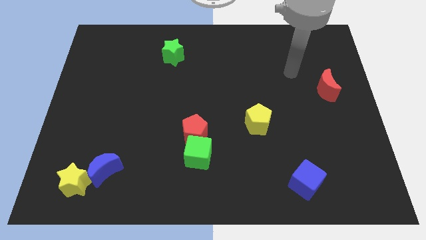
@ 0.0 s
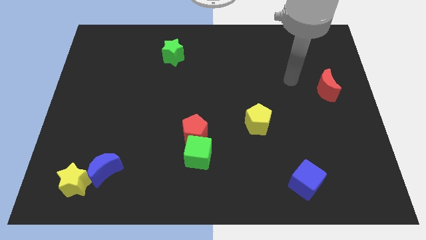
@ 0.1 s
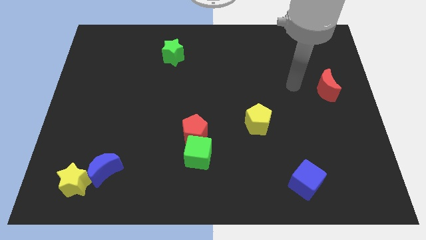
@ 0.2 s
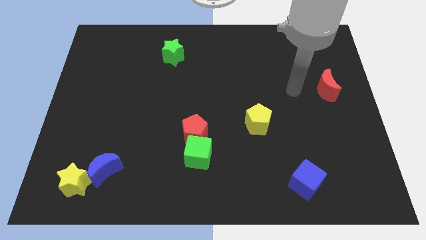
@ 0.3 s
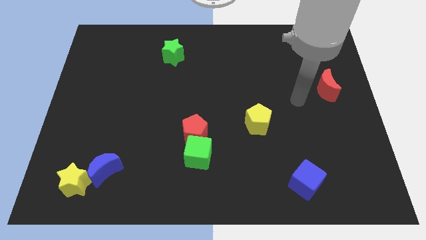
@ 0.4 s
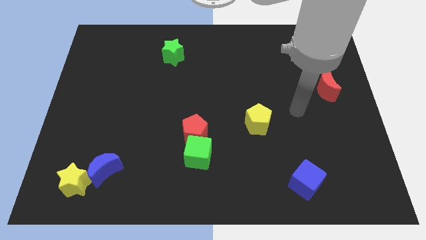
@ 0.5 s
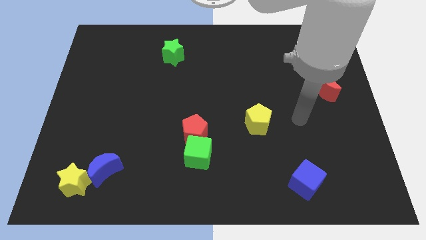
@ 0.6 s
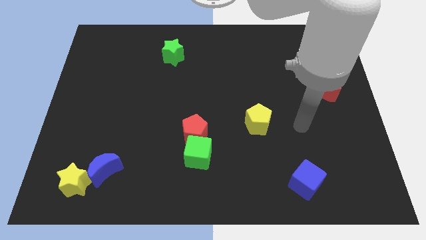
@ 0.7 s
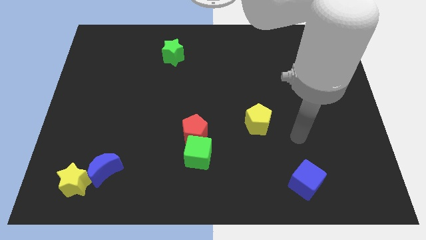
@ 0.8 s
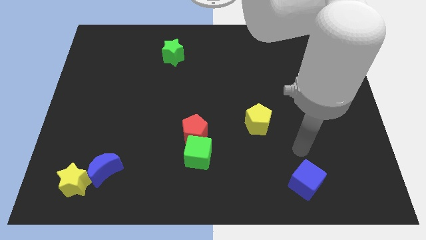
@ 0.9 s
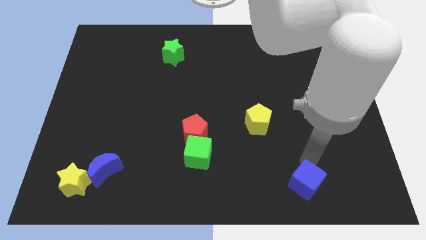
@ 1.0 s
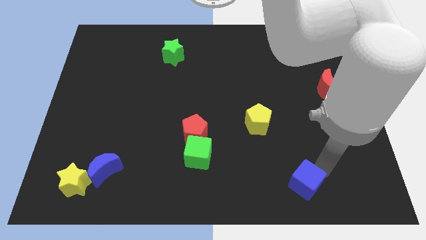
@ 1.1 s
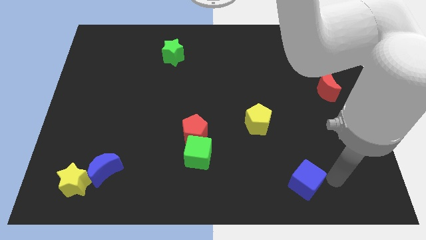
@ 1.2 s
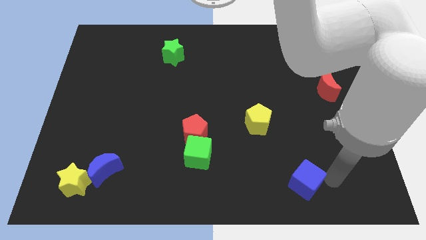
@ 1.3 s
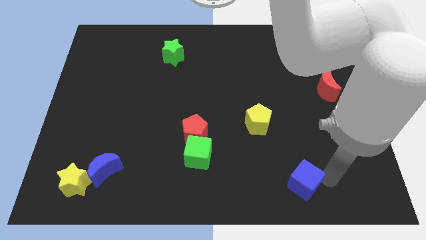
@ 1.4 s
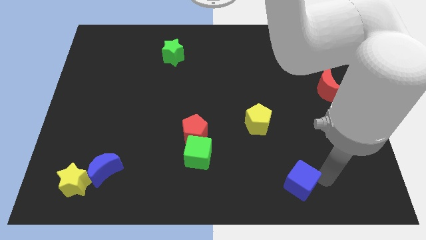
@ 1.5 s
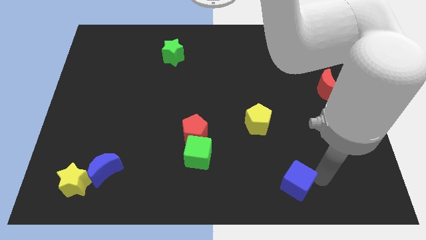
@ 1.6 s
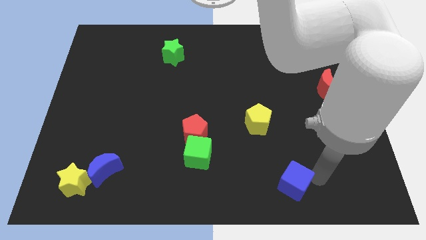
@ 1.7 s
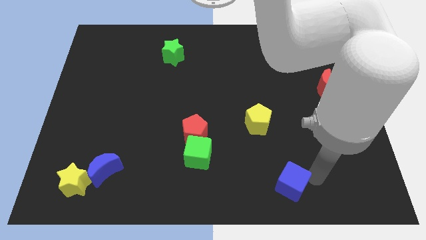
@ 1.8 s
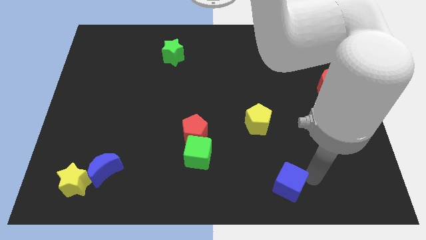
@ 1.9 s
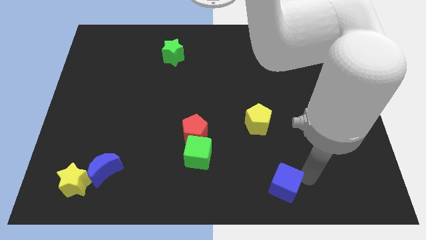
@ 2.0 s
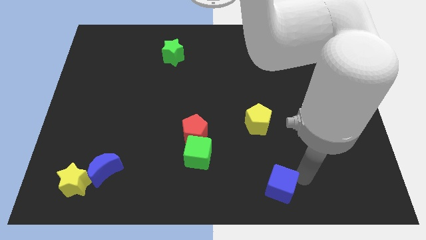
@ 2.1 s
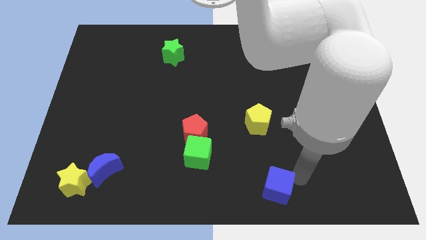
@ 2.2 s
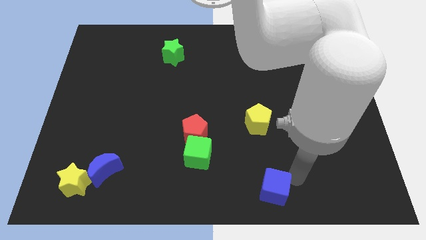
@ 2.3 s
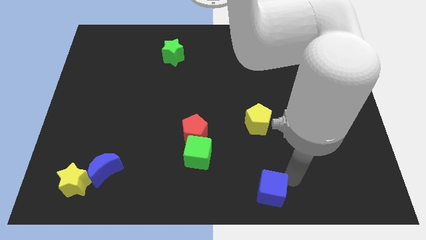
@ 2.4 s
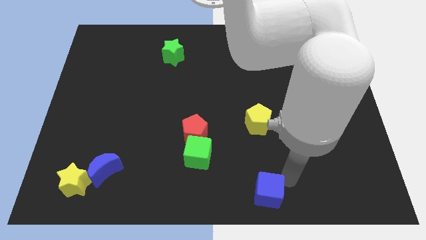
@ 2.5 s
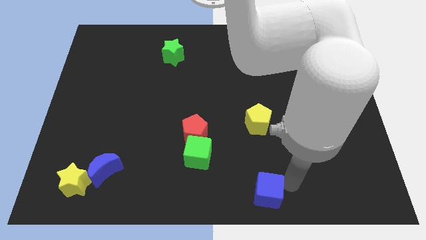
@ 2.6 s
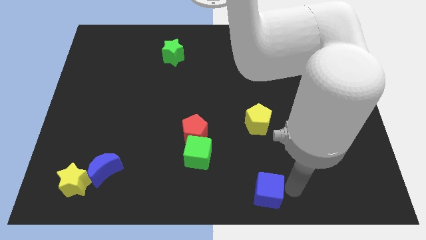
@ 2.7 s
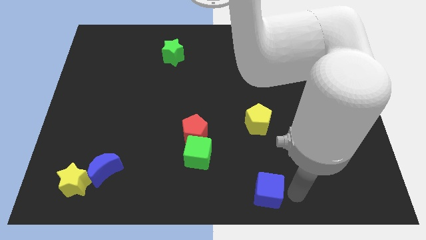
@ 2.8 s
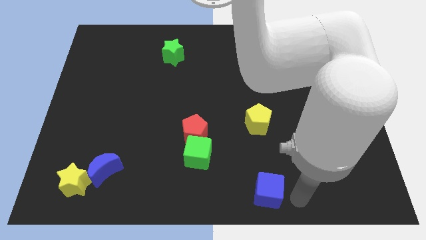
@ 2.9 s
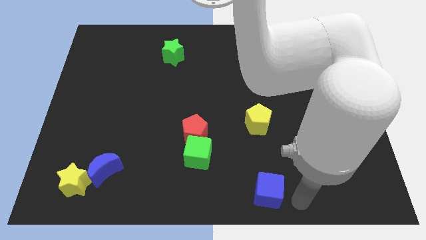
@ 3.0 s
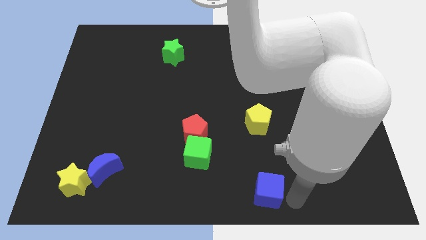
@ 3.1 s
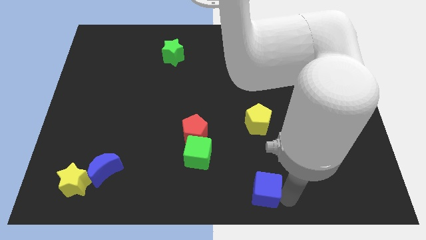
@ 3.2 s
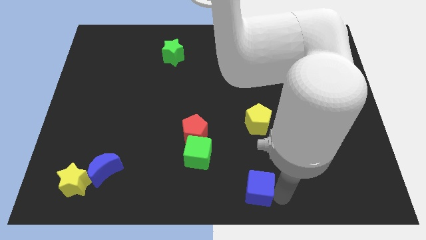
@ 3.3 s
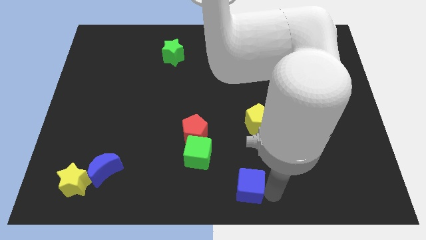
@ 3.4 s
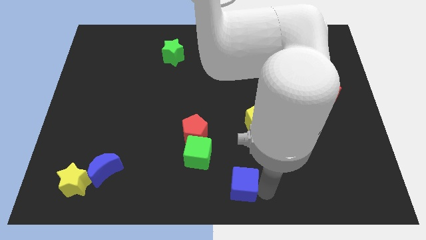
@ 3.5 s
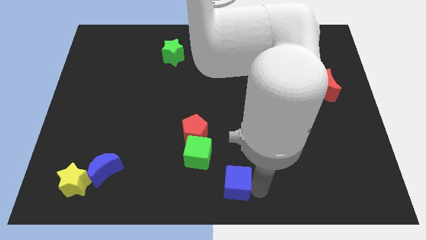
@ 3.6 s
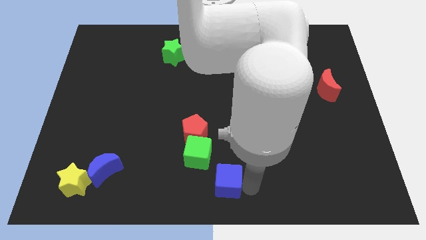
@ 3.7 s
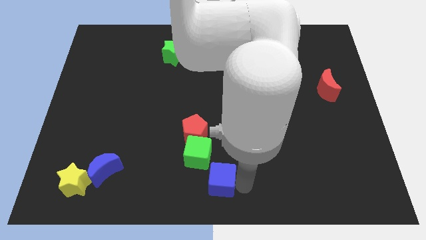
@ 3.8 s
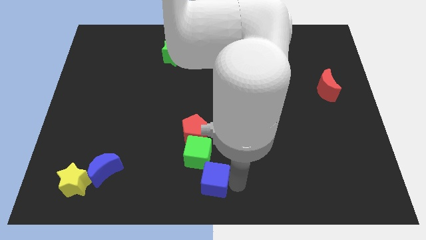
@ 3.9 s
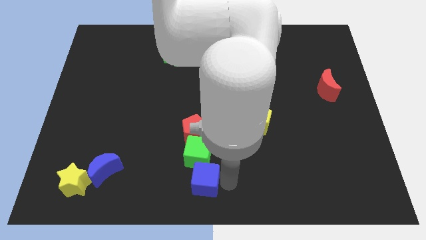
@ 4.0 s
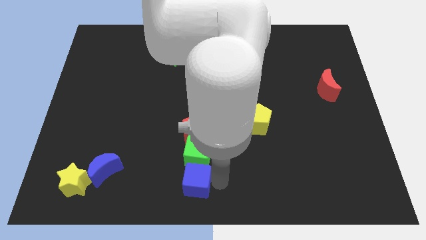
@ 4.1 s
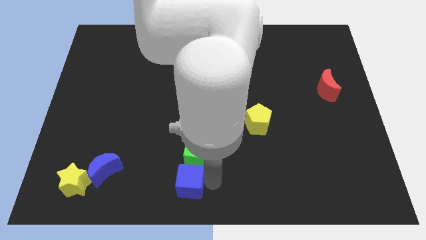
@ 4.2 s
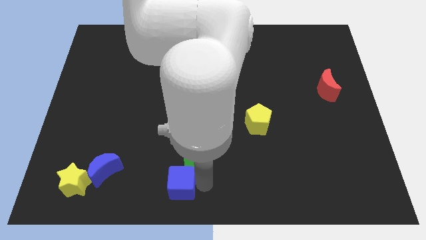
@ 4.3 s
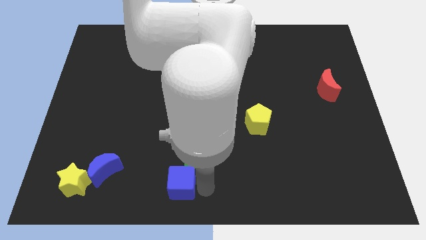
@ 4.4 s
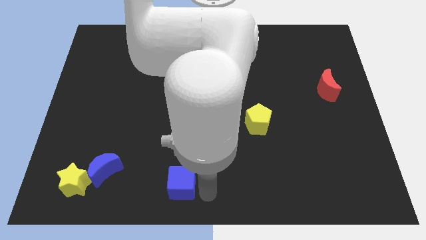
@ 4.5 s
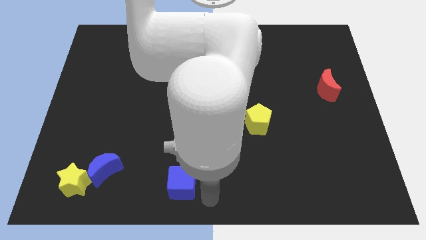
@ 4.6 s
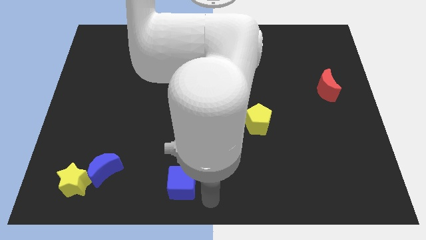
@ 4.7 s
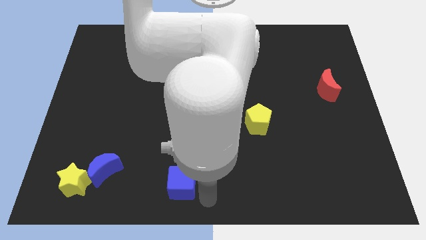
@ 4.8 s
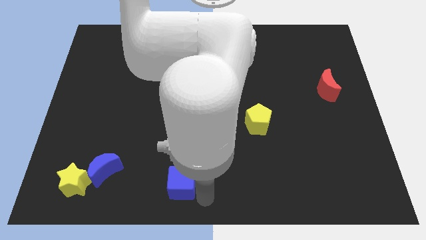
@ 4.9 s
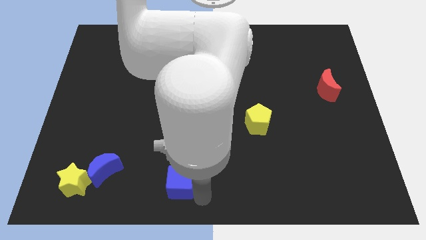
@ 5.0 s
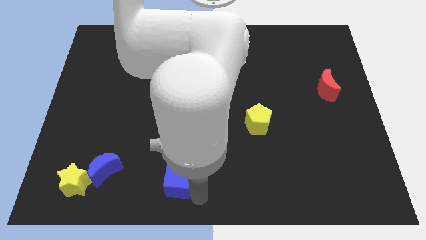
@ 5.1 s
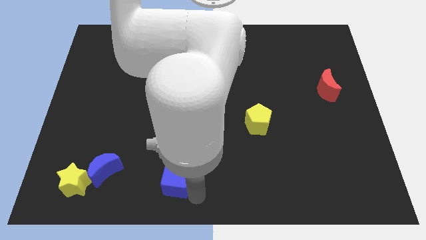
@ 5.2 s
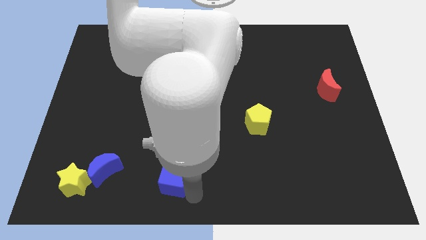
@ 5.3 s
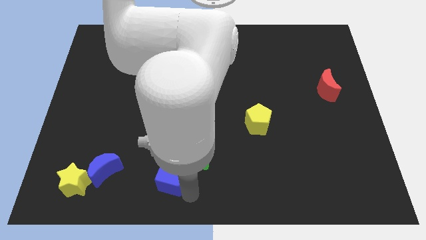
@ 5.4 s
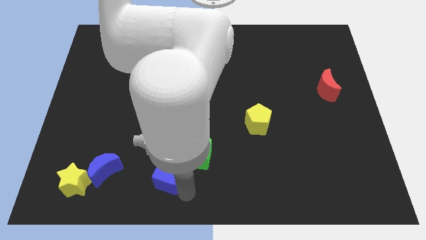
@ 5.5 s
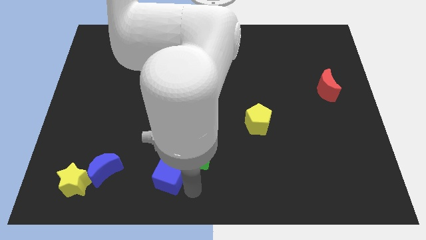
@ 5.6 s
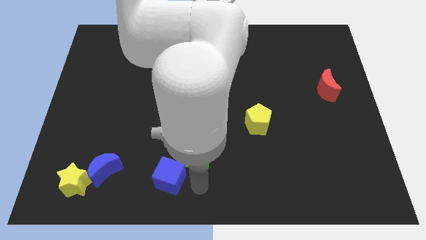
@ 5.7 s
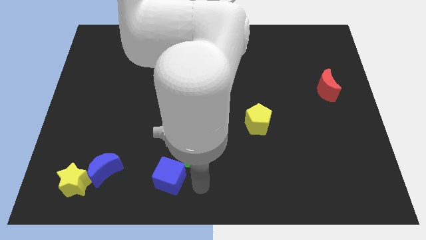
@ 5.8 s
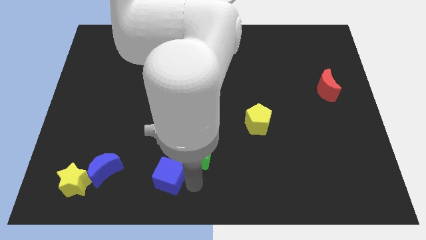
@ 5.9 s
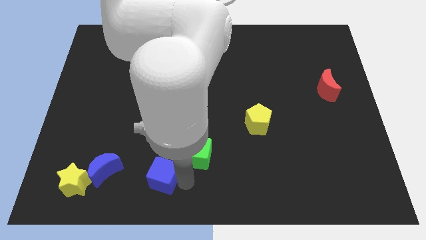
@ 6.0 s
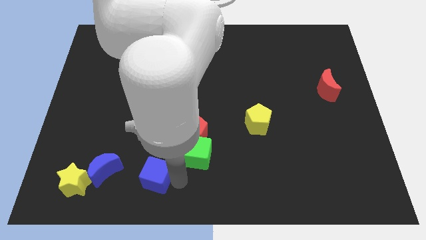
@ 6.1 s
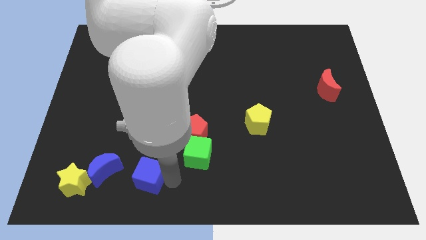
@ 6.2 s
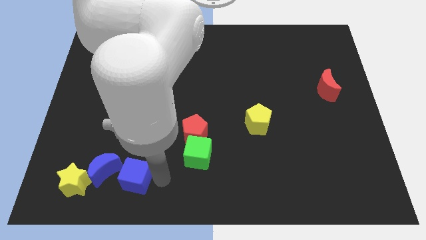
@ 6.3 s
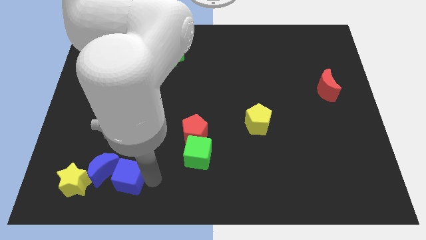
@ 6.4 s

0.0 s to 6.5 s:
push the blue cube next to the blue moon

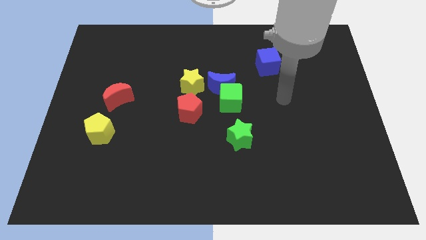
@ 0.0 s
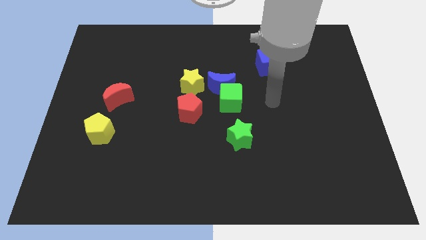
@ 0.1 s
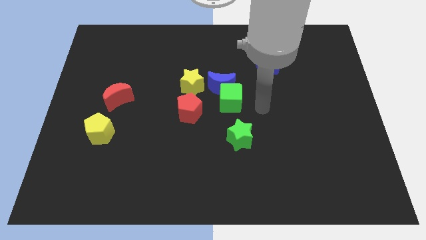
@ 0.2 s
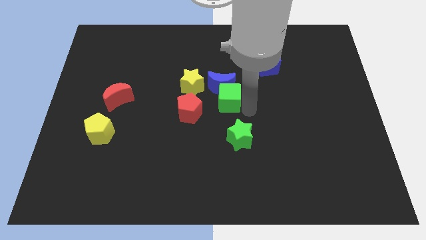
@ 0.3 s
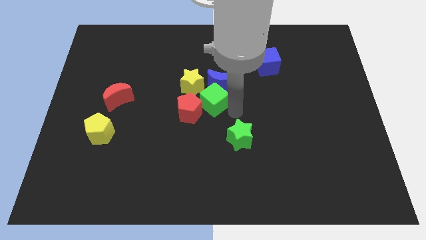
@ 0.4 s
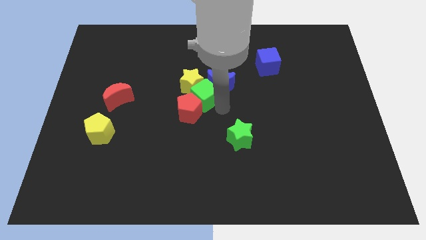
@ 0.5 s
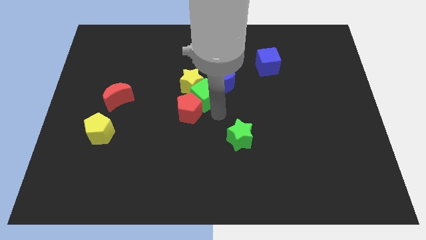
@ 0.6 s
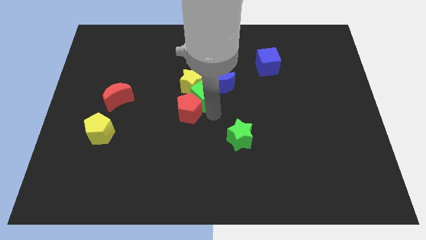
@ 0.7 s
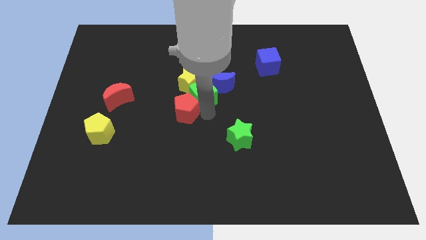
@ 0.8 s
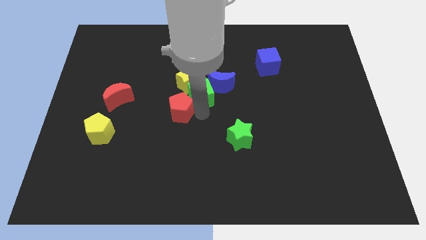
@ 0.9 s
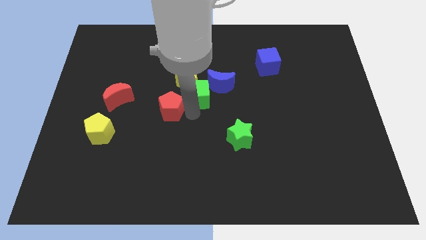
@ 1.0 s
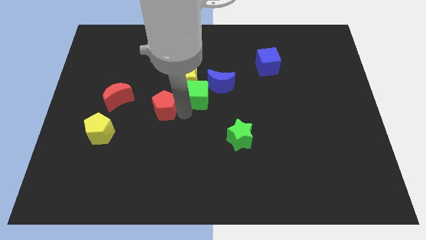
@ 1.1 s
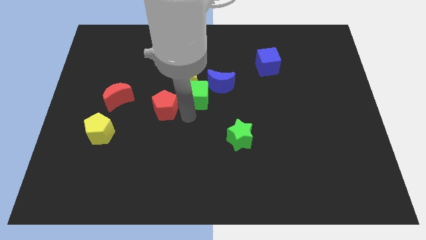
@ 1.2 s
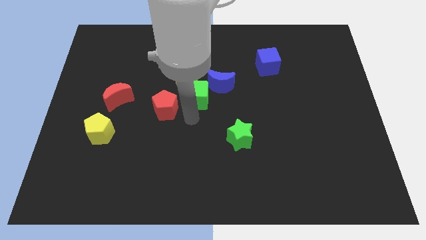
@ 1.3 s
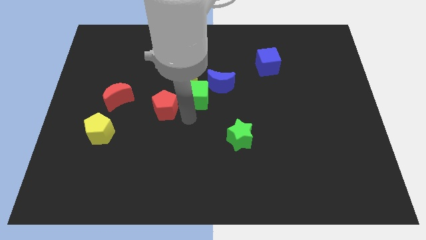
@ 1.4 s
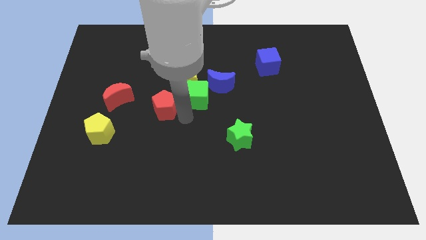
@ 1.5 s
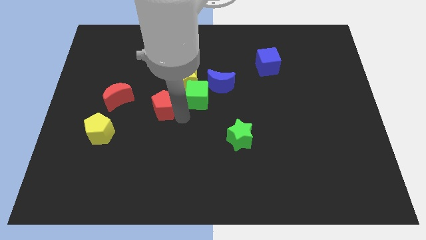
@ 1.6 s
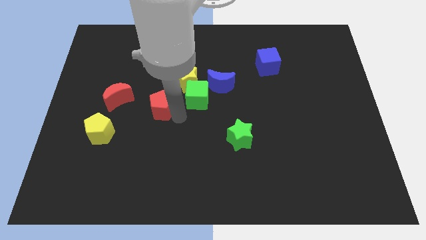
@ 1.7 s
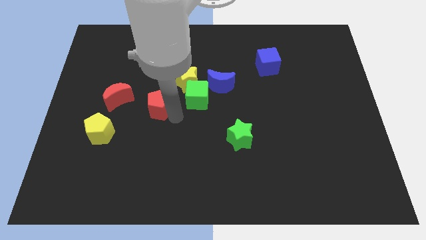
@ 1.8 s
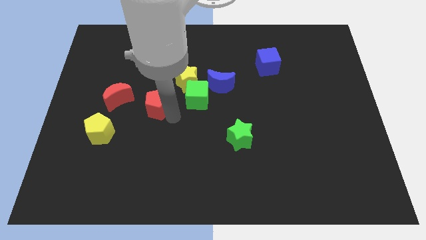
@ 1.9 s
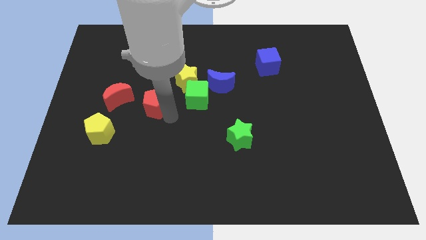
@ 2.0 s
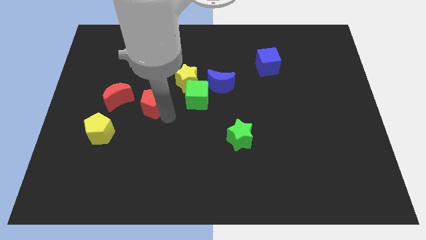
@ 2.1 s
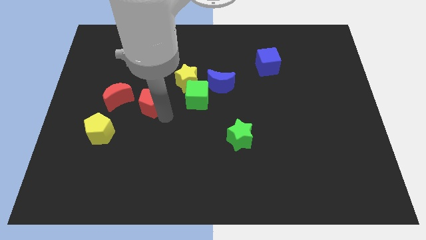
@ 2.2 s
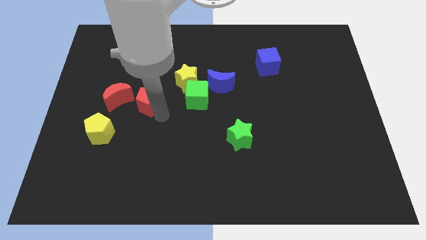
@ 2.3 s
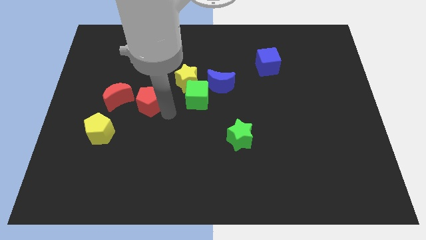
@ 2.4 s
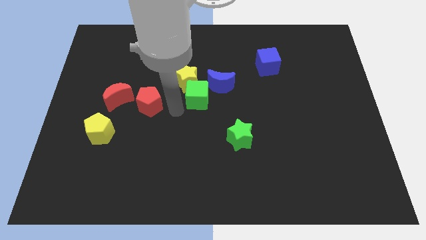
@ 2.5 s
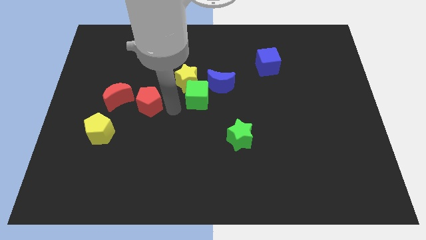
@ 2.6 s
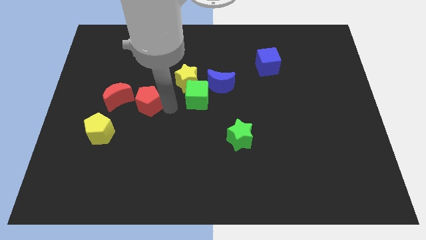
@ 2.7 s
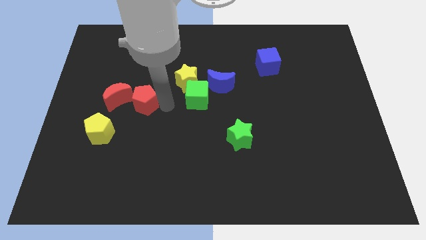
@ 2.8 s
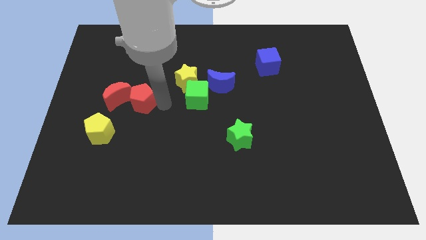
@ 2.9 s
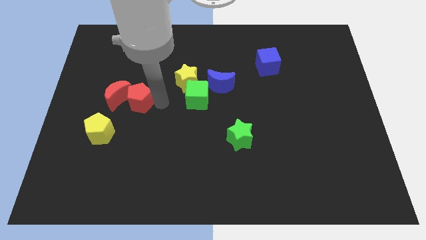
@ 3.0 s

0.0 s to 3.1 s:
push the red pentagon to the red moon
